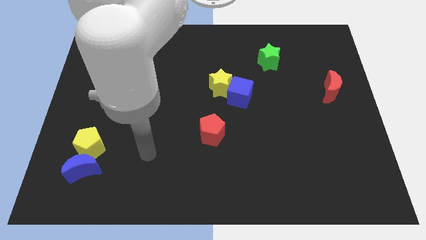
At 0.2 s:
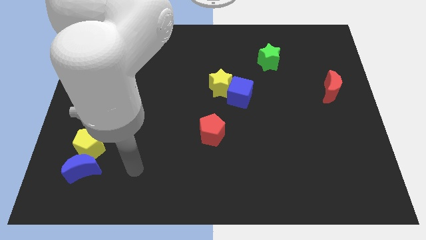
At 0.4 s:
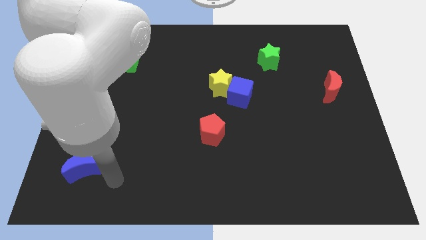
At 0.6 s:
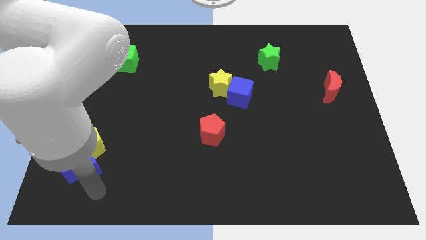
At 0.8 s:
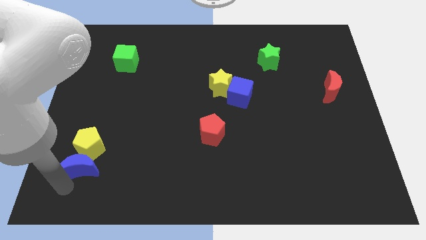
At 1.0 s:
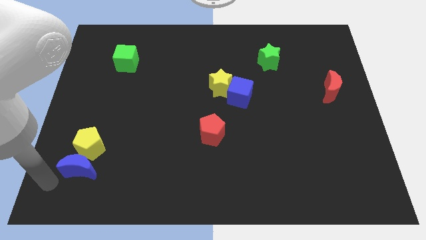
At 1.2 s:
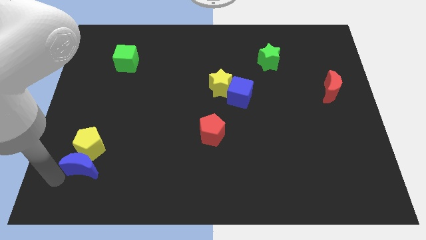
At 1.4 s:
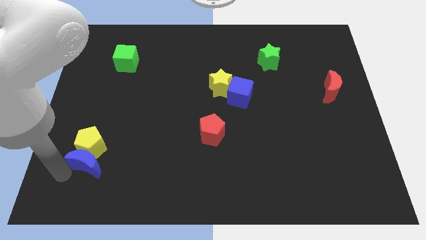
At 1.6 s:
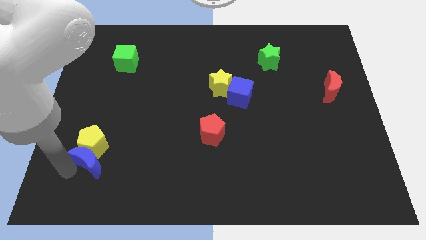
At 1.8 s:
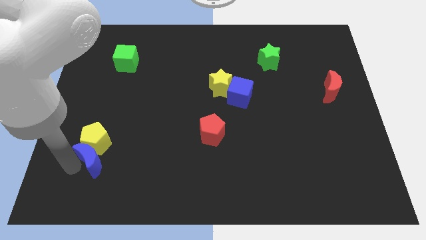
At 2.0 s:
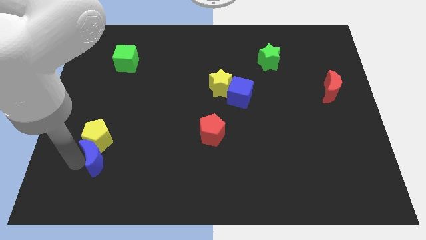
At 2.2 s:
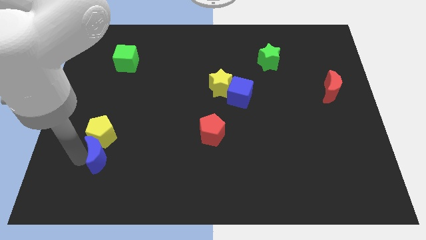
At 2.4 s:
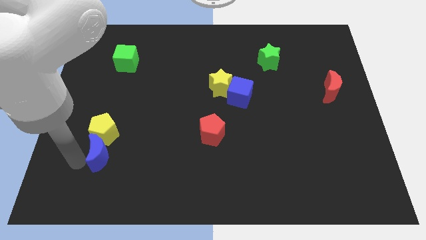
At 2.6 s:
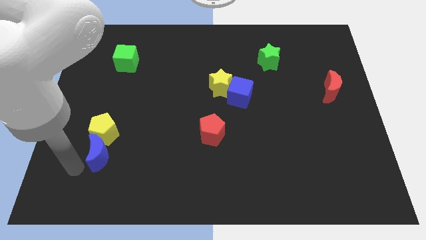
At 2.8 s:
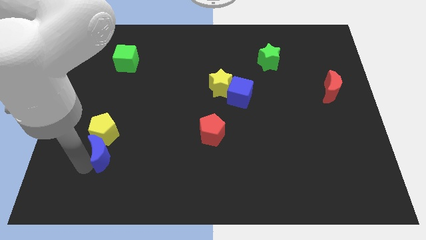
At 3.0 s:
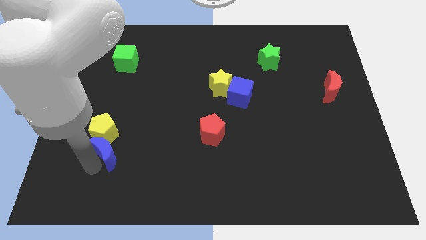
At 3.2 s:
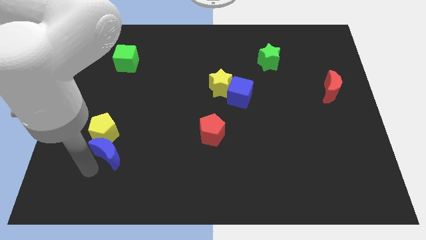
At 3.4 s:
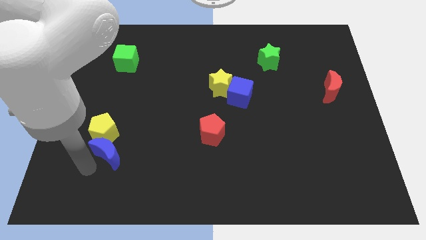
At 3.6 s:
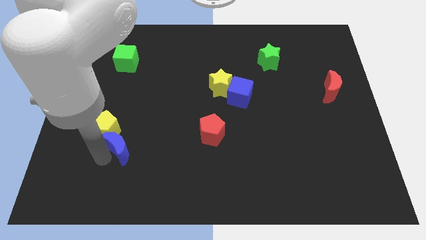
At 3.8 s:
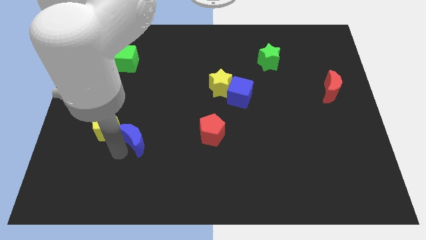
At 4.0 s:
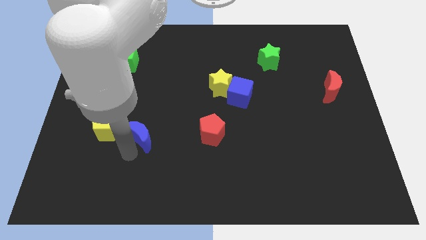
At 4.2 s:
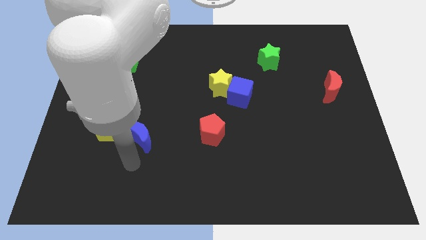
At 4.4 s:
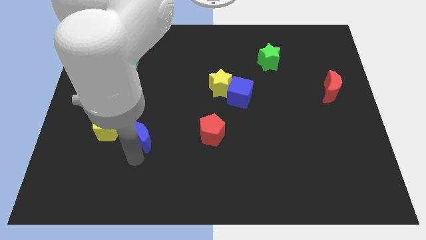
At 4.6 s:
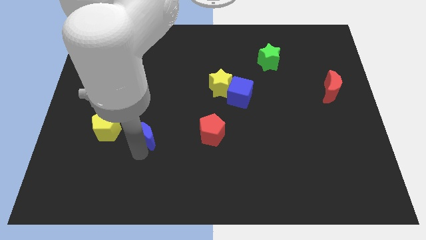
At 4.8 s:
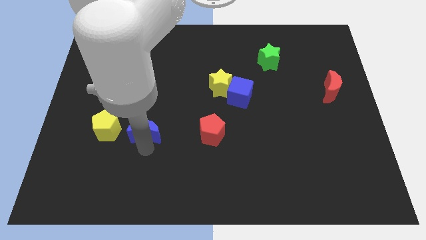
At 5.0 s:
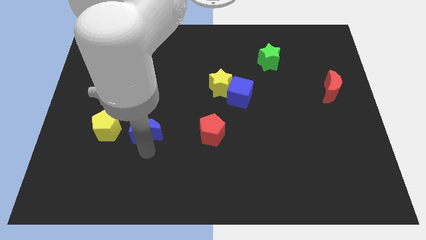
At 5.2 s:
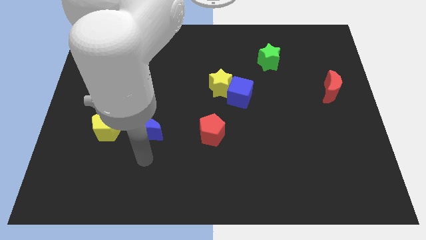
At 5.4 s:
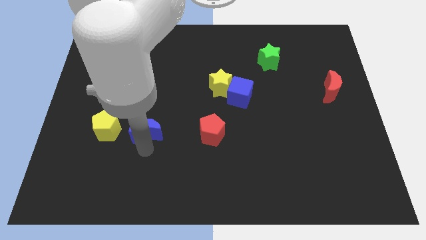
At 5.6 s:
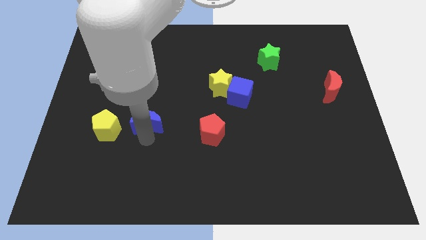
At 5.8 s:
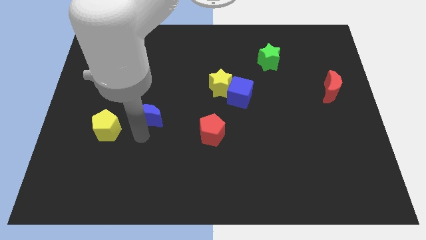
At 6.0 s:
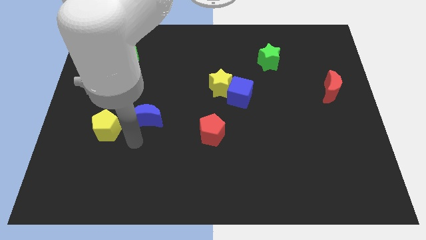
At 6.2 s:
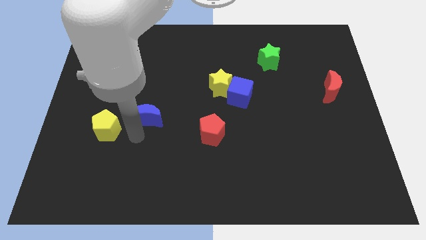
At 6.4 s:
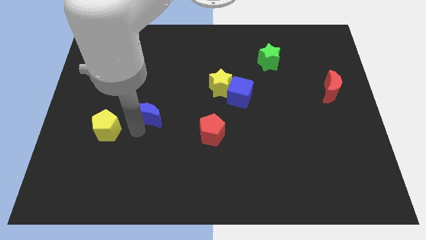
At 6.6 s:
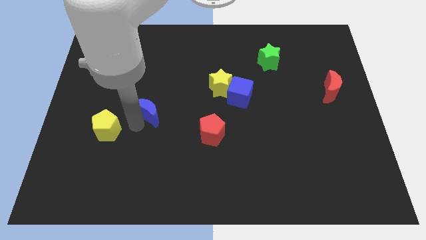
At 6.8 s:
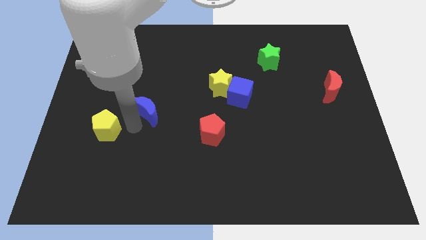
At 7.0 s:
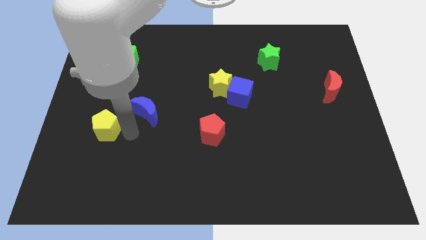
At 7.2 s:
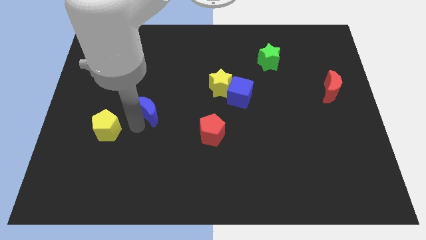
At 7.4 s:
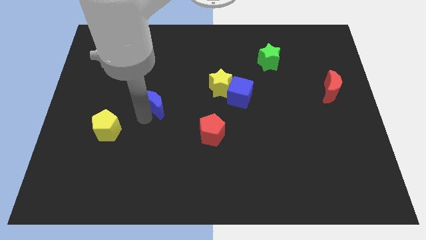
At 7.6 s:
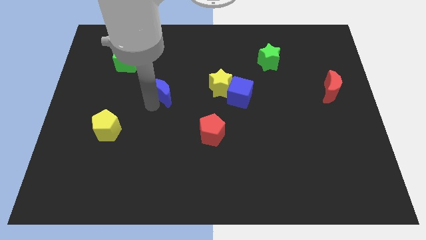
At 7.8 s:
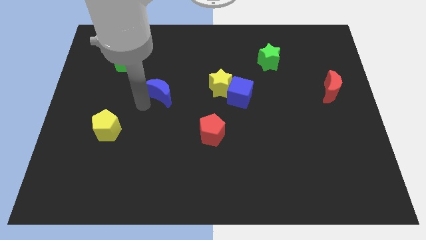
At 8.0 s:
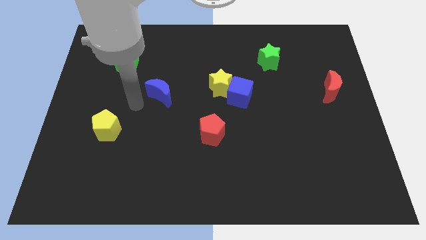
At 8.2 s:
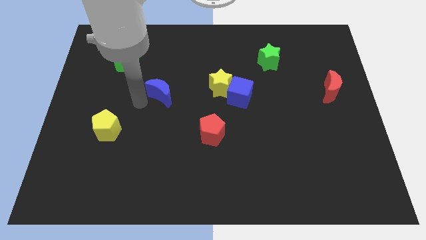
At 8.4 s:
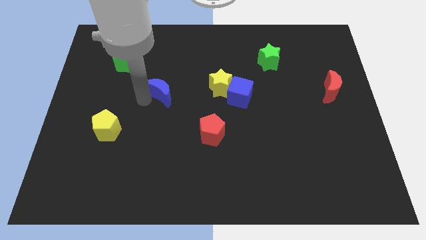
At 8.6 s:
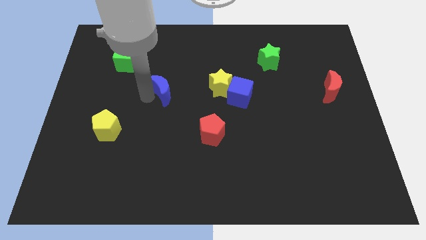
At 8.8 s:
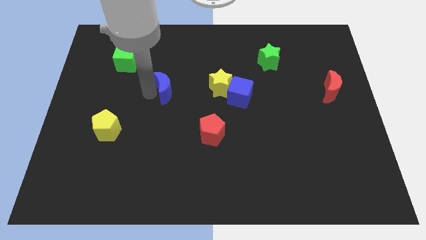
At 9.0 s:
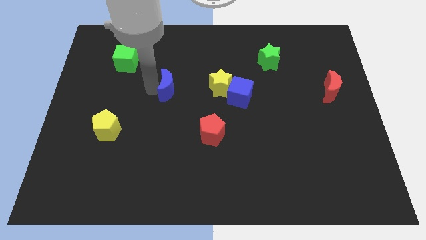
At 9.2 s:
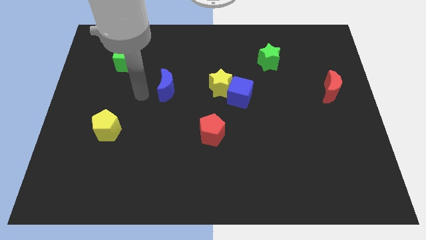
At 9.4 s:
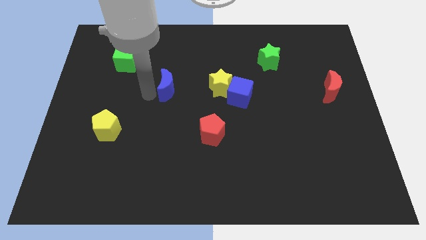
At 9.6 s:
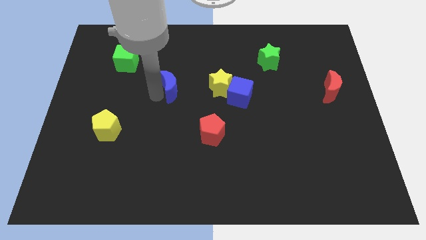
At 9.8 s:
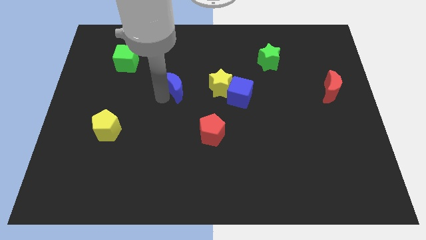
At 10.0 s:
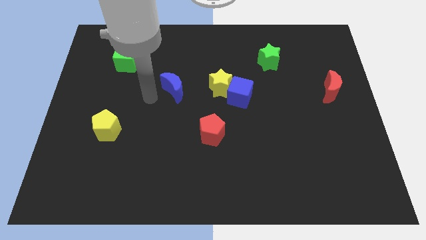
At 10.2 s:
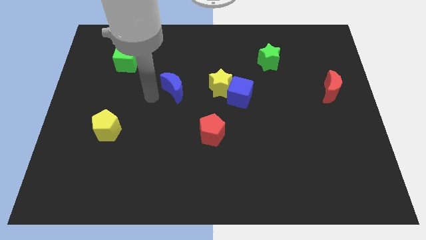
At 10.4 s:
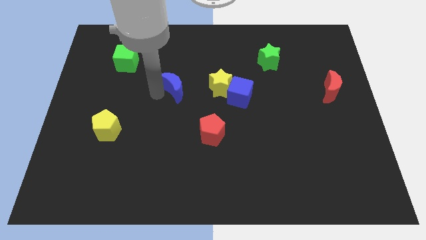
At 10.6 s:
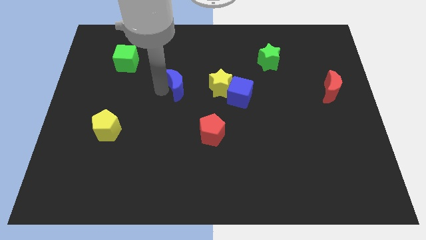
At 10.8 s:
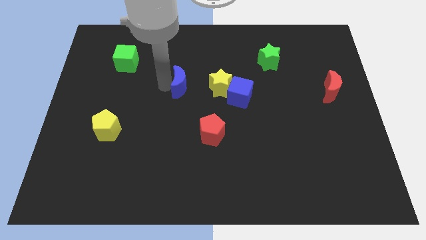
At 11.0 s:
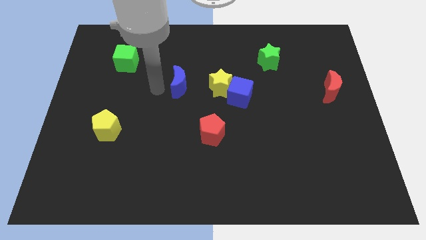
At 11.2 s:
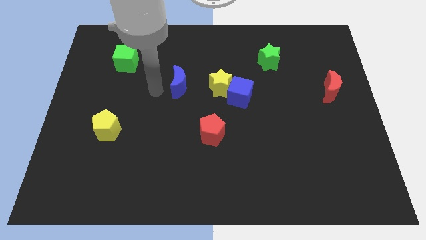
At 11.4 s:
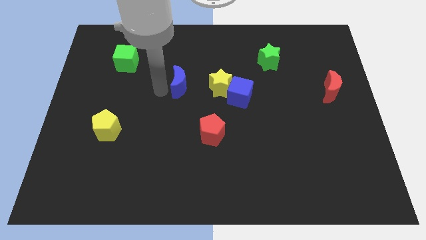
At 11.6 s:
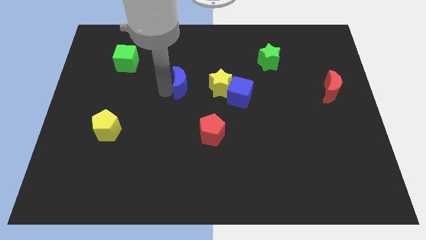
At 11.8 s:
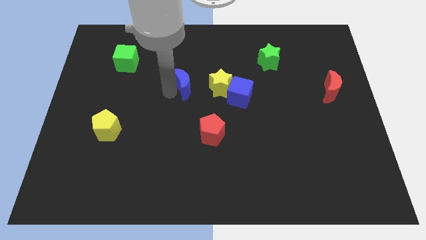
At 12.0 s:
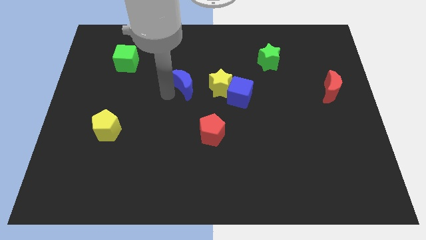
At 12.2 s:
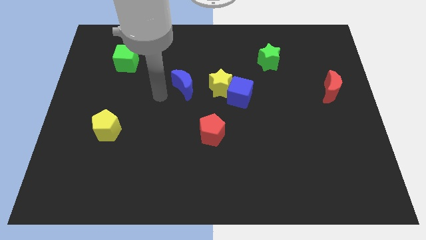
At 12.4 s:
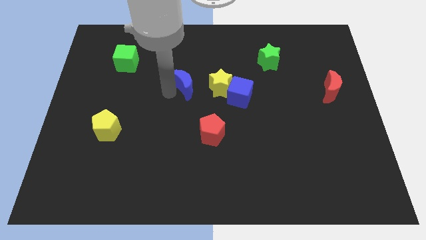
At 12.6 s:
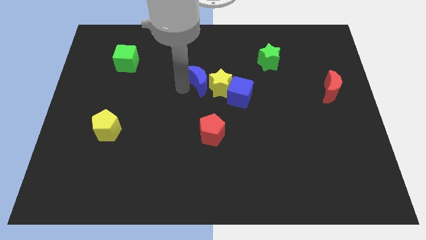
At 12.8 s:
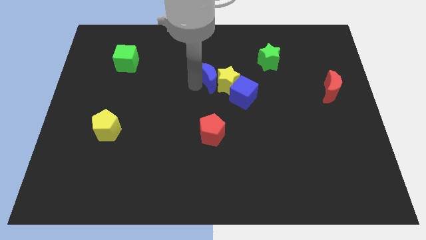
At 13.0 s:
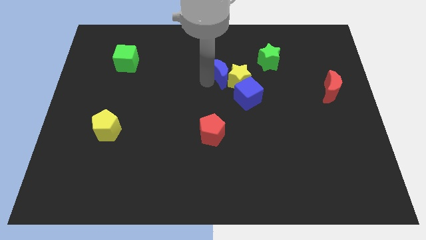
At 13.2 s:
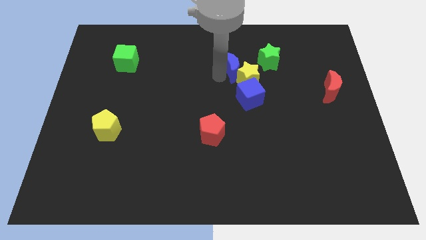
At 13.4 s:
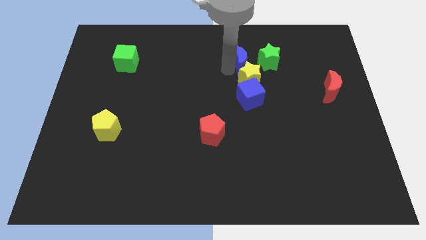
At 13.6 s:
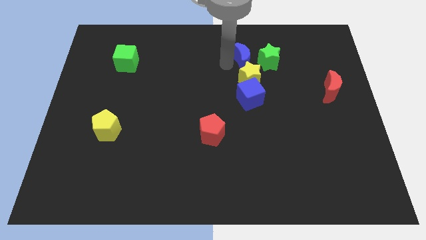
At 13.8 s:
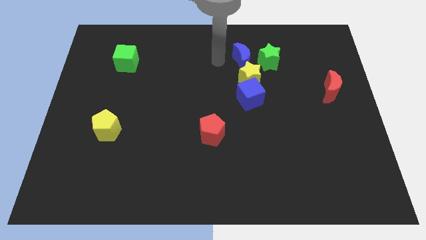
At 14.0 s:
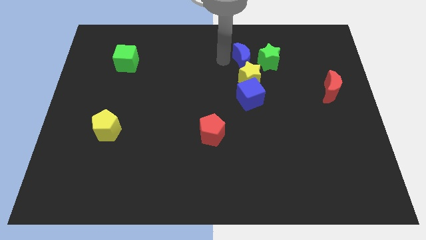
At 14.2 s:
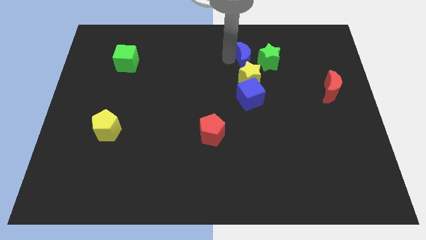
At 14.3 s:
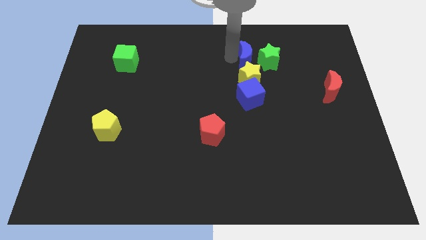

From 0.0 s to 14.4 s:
push the blue moon towards the green star

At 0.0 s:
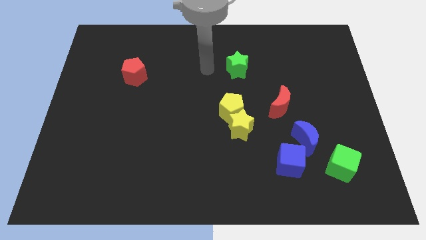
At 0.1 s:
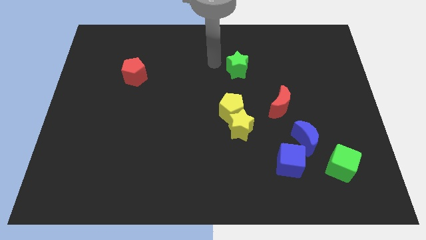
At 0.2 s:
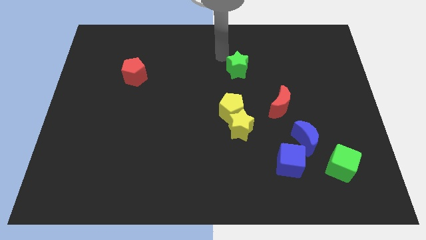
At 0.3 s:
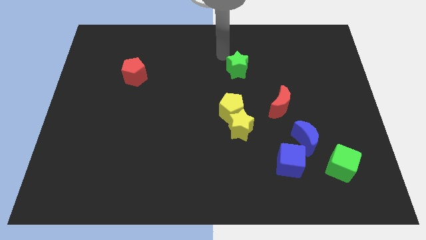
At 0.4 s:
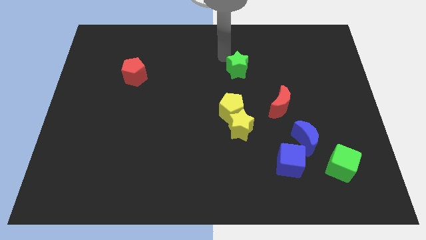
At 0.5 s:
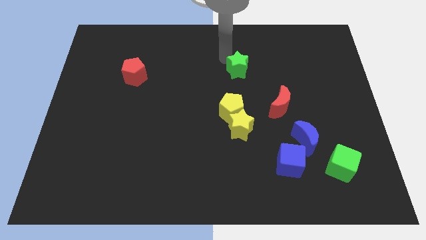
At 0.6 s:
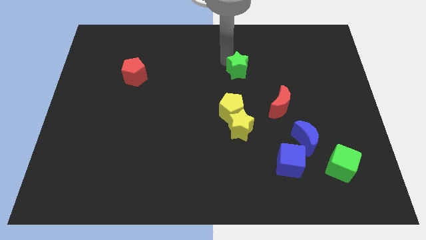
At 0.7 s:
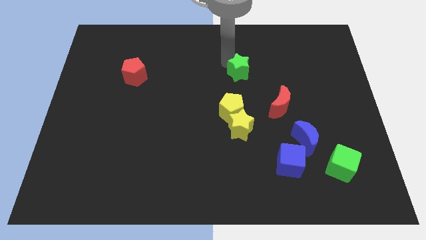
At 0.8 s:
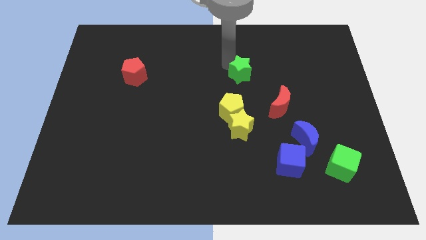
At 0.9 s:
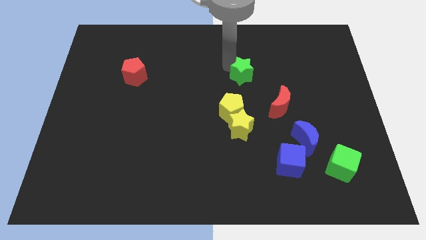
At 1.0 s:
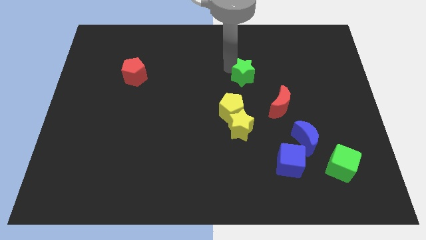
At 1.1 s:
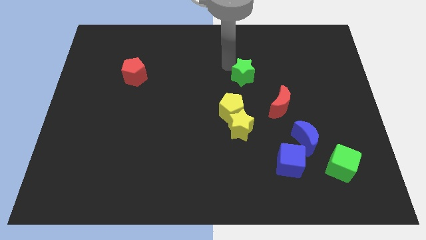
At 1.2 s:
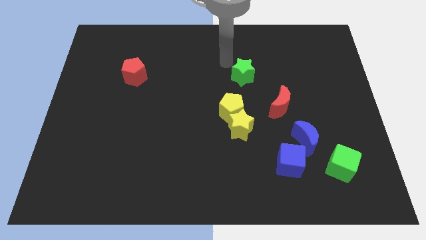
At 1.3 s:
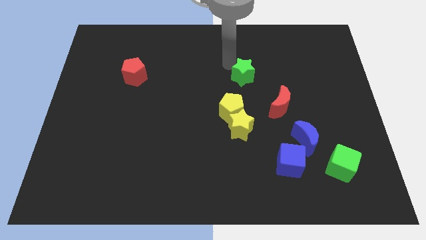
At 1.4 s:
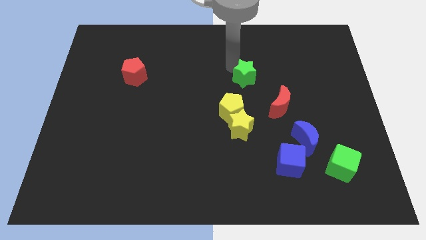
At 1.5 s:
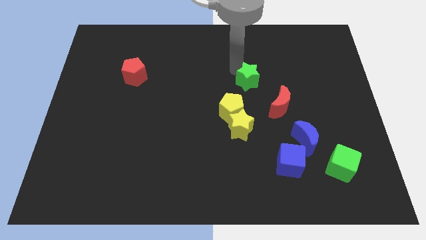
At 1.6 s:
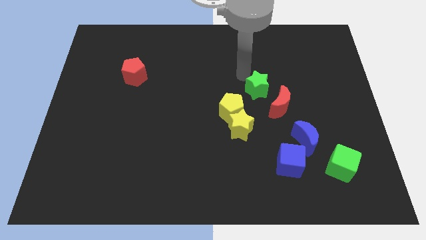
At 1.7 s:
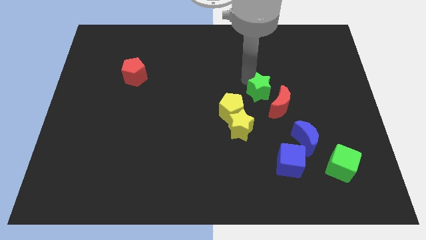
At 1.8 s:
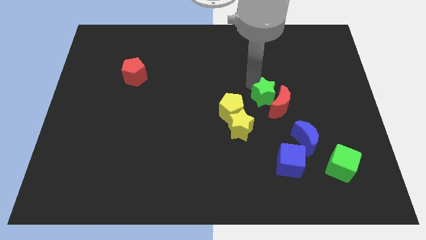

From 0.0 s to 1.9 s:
slide the green star close to the red moon
